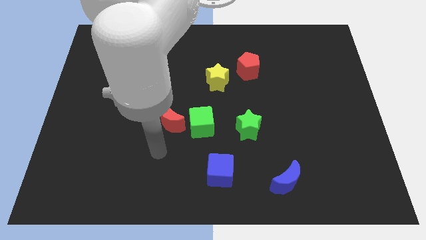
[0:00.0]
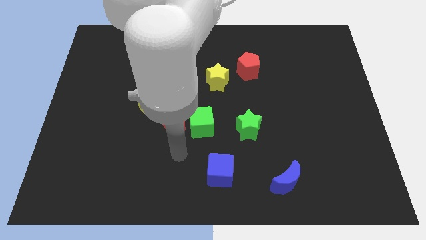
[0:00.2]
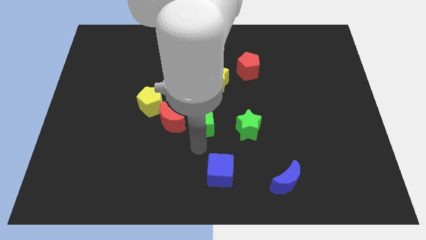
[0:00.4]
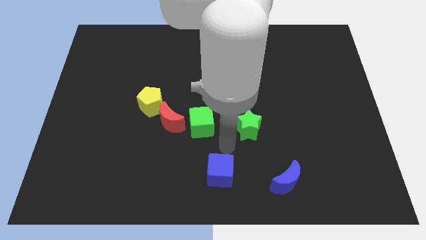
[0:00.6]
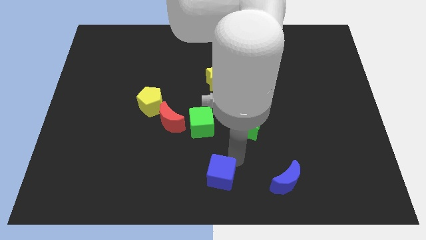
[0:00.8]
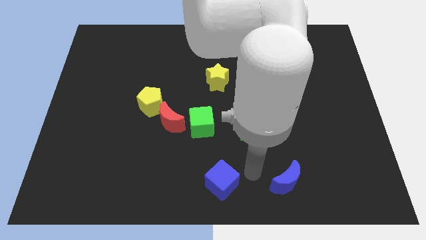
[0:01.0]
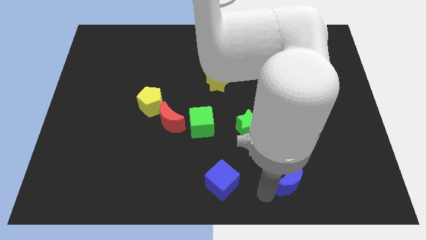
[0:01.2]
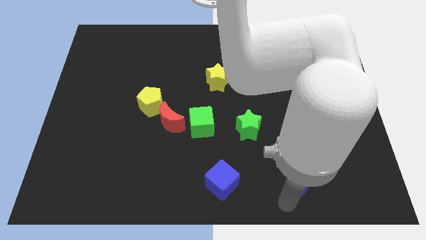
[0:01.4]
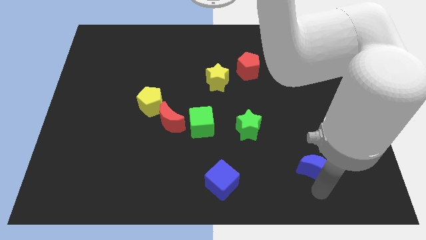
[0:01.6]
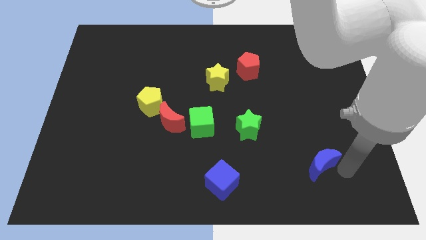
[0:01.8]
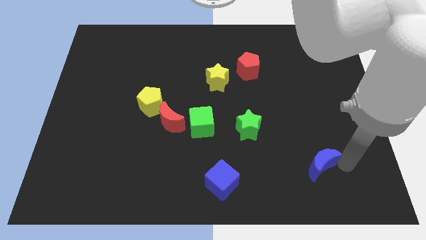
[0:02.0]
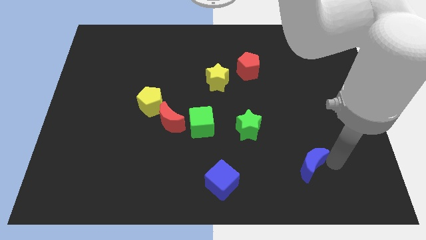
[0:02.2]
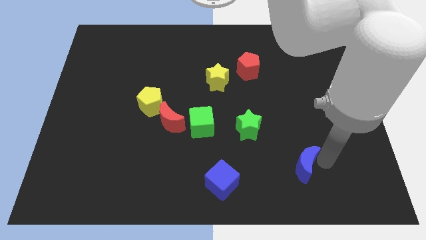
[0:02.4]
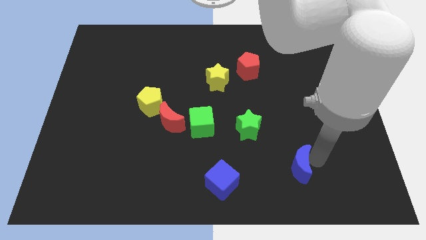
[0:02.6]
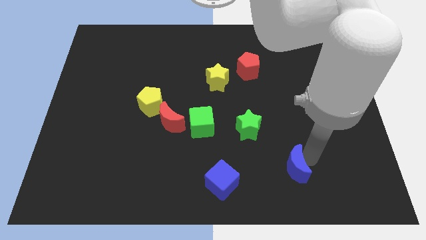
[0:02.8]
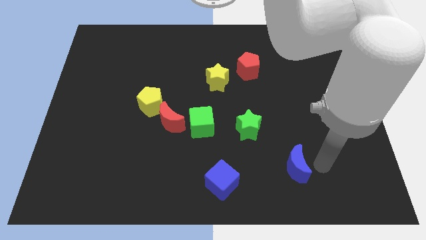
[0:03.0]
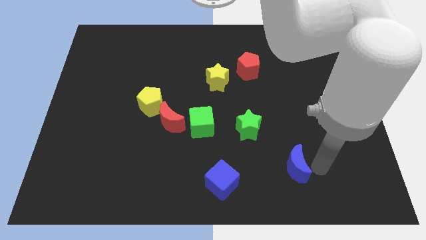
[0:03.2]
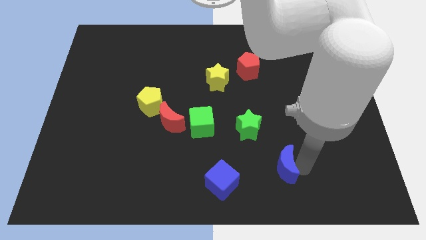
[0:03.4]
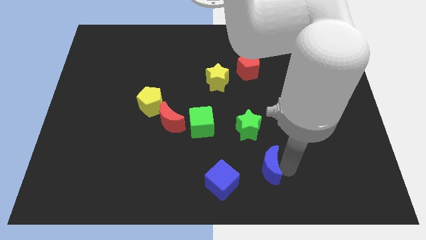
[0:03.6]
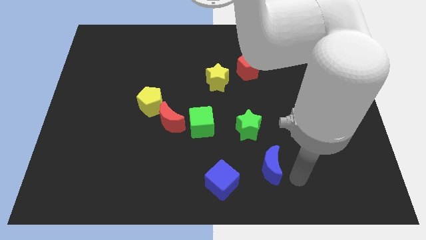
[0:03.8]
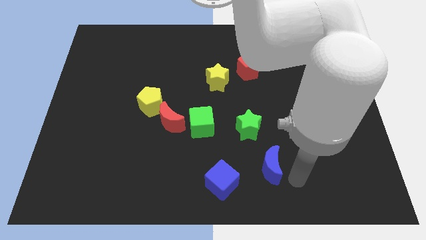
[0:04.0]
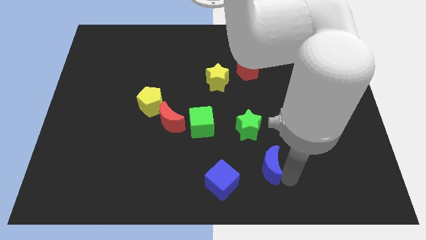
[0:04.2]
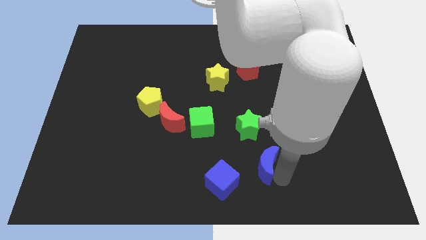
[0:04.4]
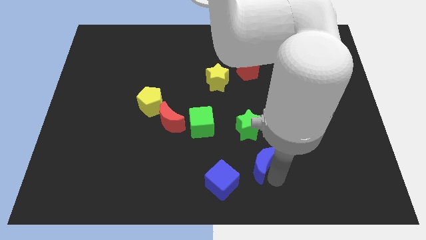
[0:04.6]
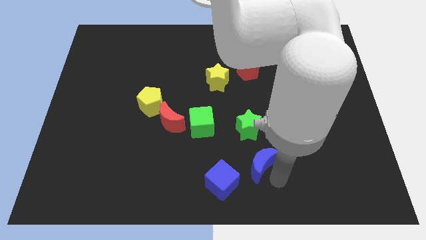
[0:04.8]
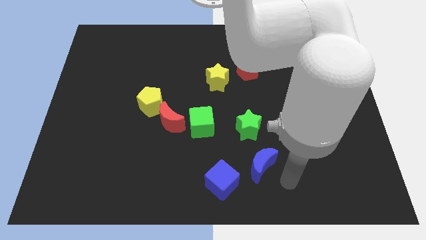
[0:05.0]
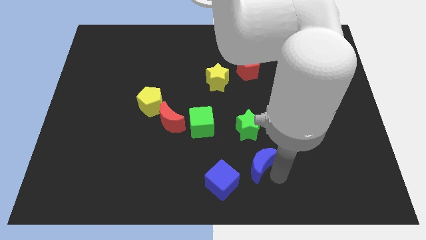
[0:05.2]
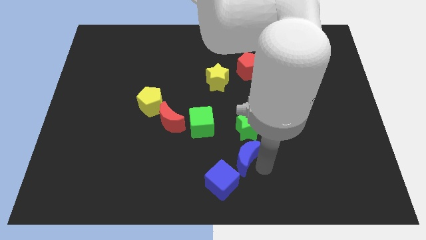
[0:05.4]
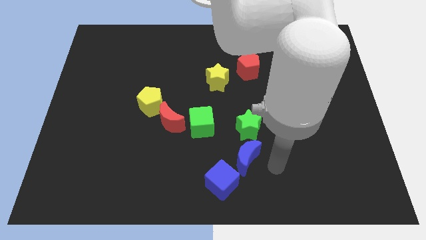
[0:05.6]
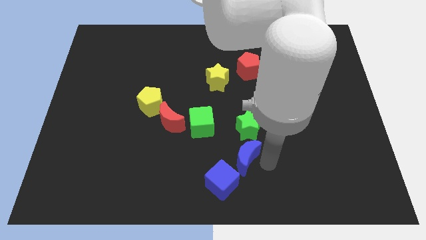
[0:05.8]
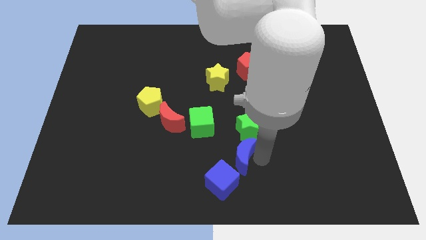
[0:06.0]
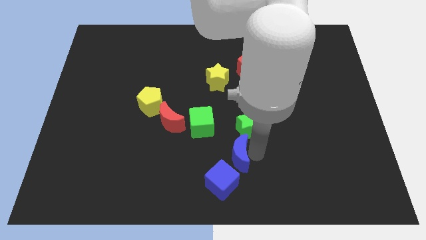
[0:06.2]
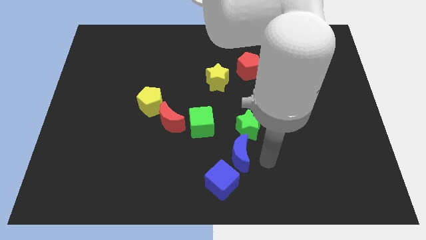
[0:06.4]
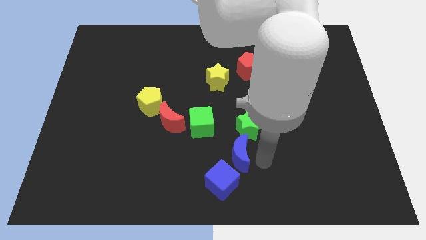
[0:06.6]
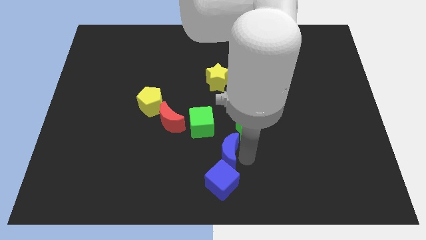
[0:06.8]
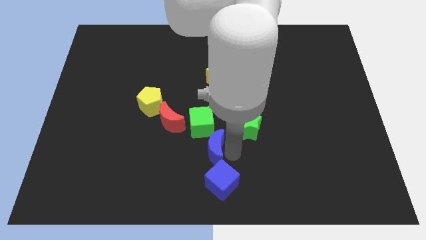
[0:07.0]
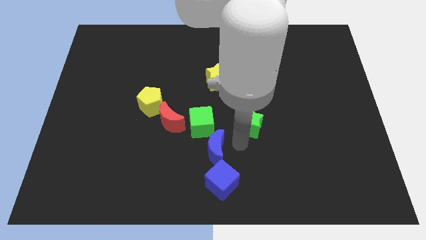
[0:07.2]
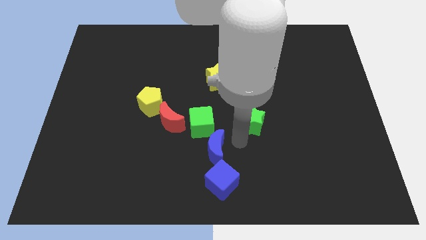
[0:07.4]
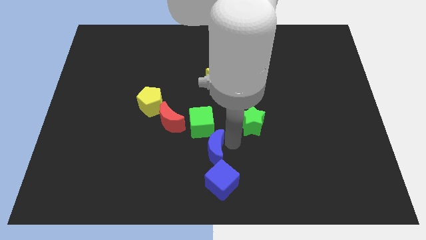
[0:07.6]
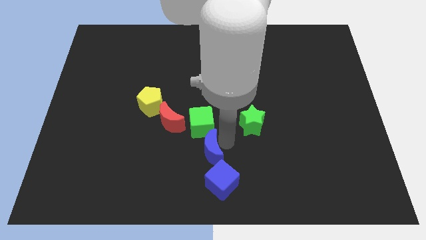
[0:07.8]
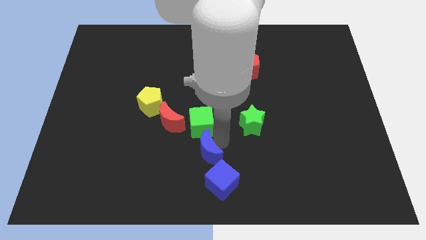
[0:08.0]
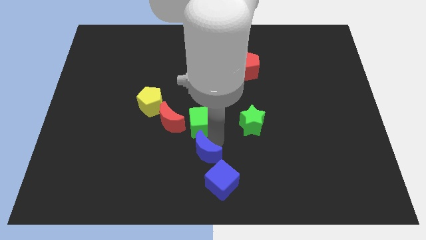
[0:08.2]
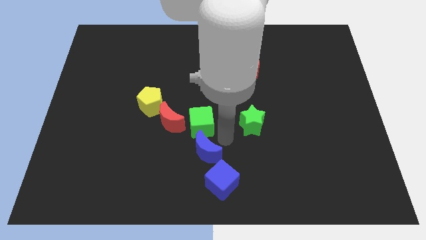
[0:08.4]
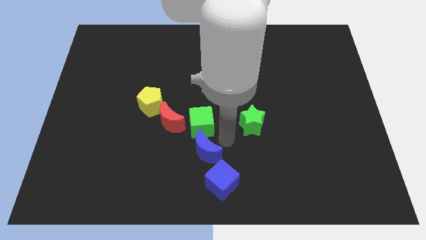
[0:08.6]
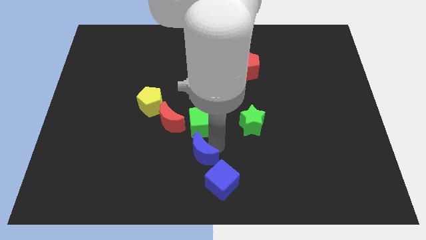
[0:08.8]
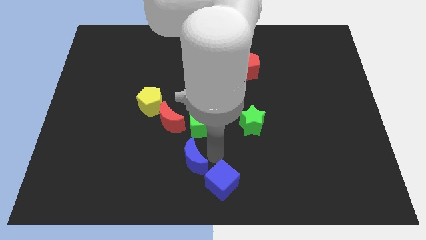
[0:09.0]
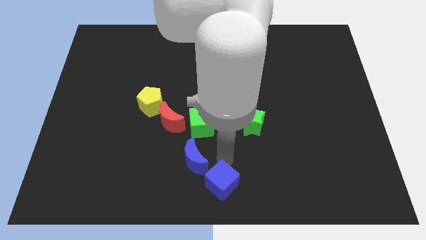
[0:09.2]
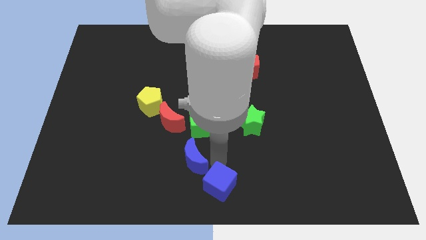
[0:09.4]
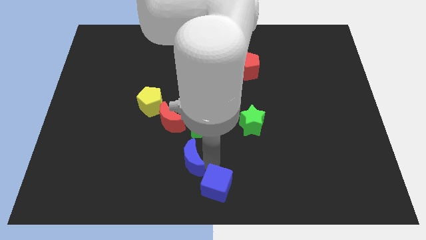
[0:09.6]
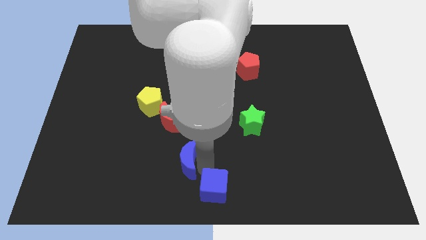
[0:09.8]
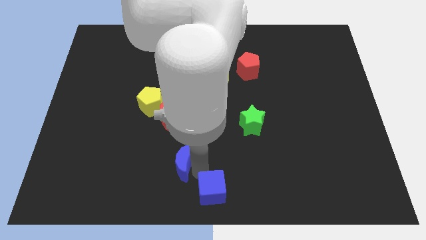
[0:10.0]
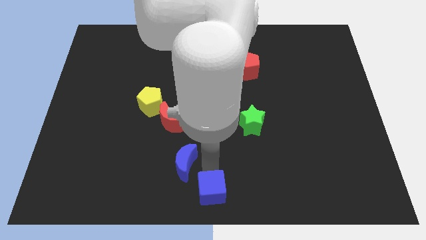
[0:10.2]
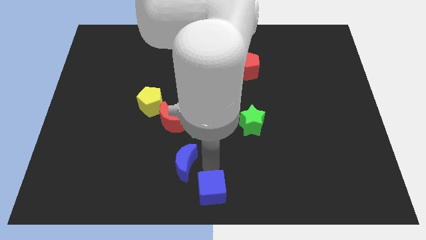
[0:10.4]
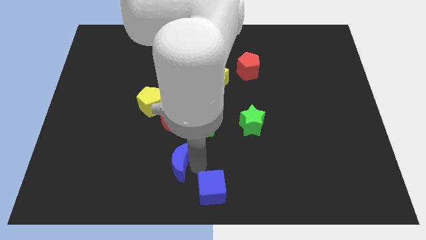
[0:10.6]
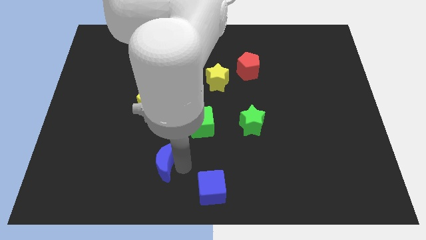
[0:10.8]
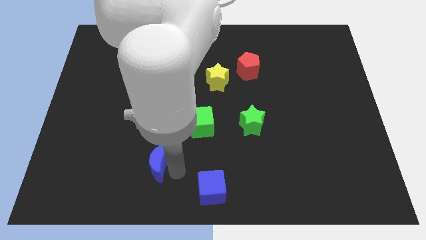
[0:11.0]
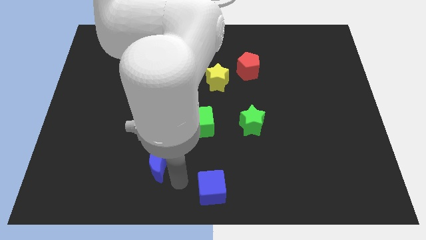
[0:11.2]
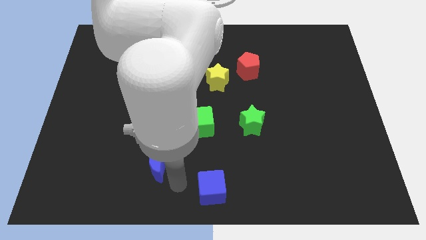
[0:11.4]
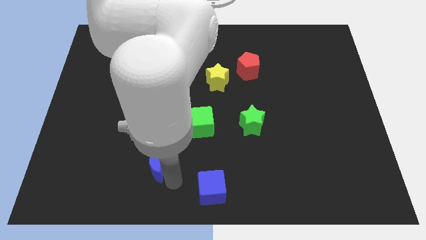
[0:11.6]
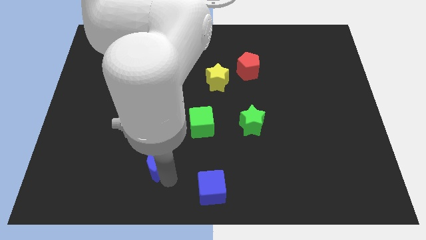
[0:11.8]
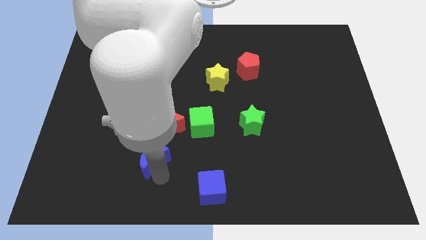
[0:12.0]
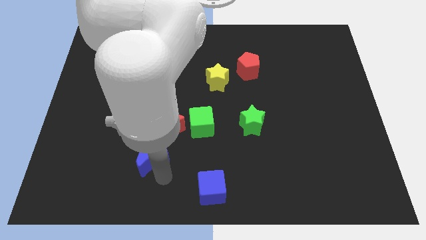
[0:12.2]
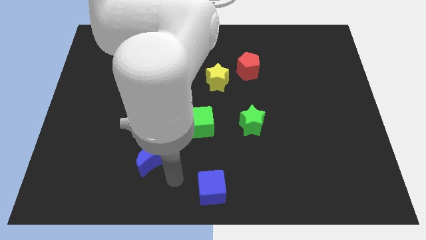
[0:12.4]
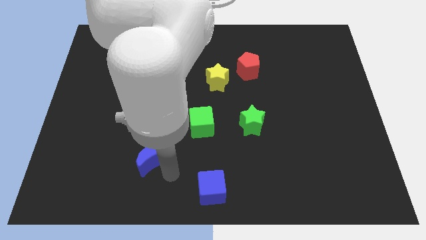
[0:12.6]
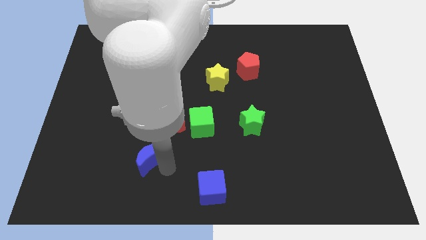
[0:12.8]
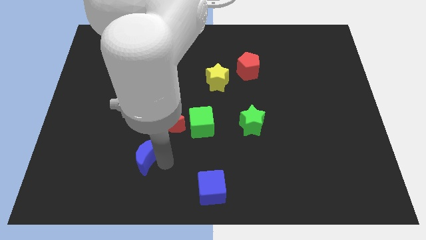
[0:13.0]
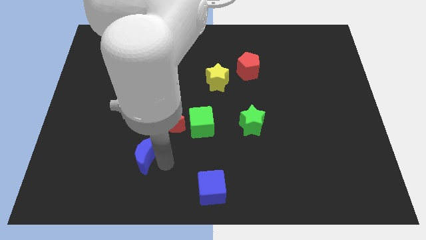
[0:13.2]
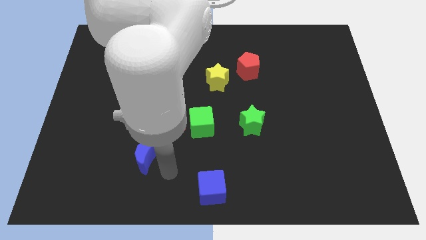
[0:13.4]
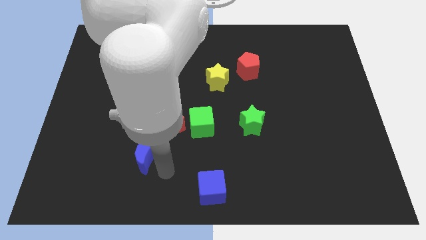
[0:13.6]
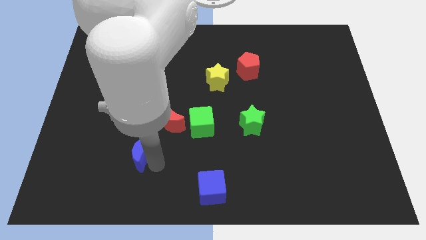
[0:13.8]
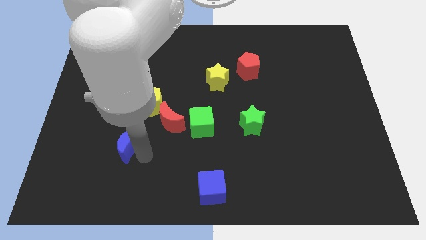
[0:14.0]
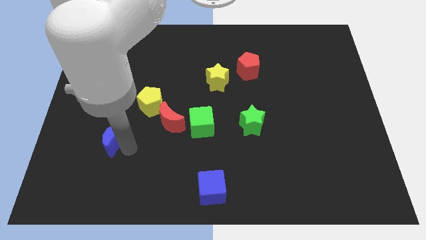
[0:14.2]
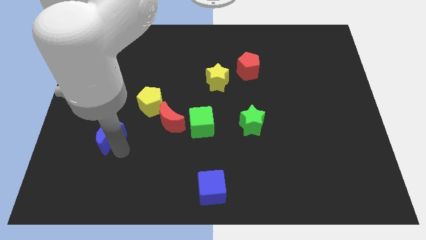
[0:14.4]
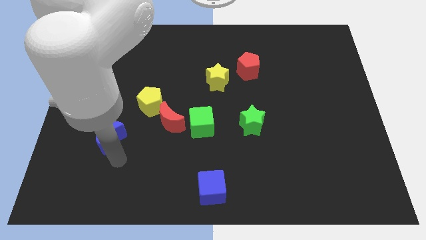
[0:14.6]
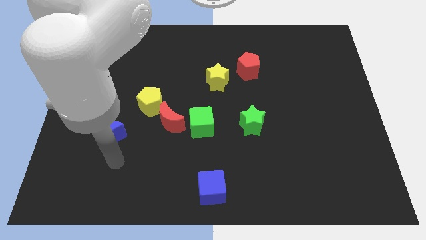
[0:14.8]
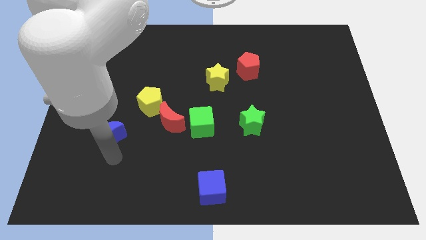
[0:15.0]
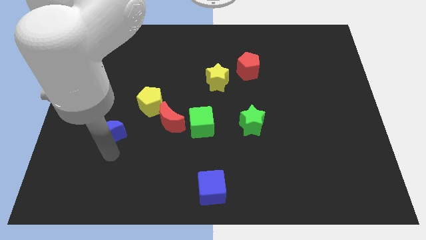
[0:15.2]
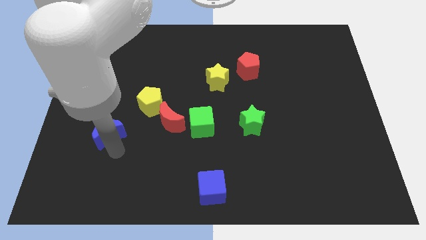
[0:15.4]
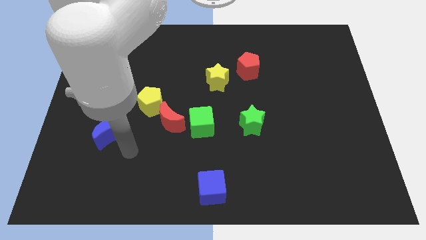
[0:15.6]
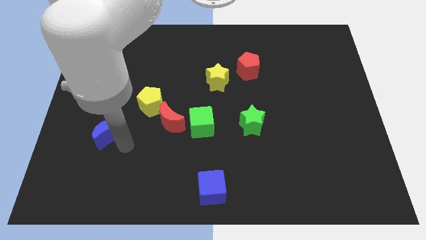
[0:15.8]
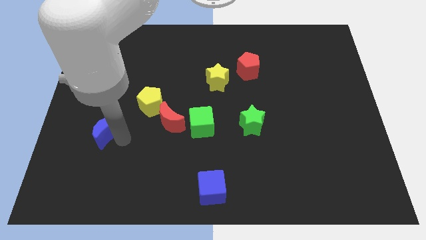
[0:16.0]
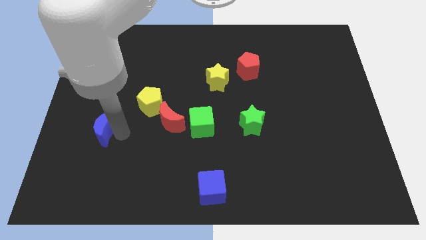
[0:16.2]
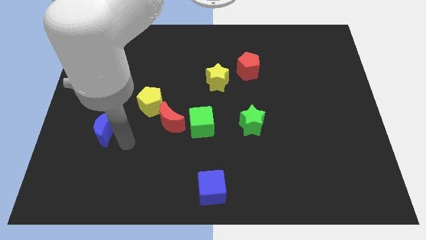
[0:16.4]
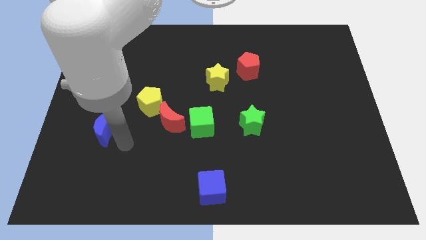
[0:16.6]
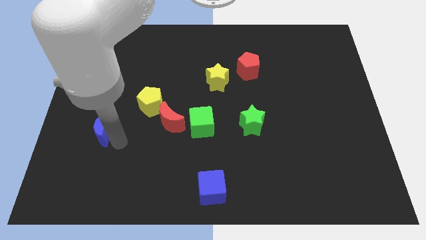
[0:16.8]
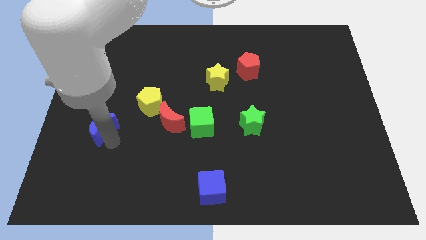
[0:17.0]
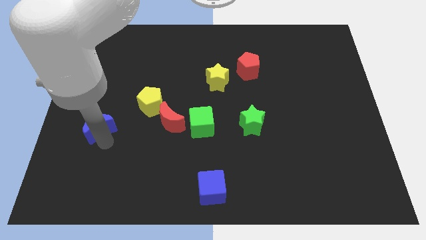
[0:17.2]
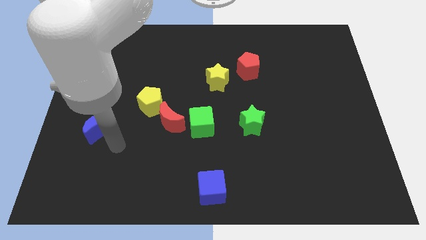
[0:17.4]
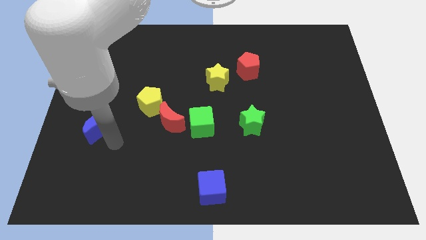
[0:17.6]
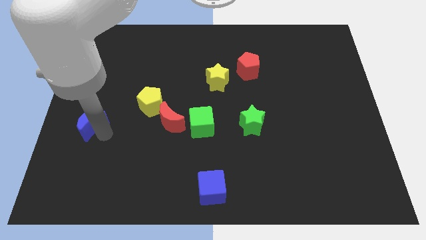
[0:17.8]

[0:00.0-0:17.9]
move the blue moon to the left side of the board
